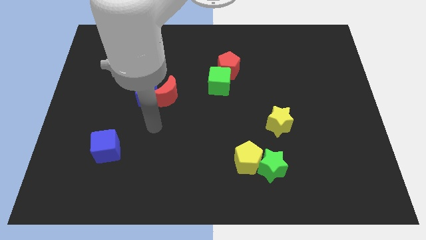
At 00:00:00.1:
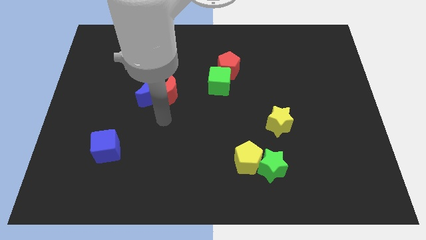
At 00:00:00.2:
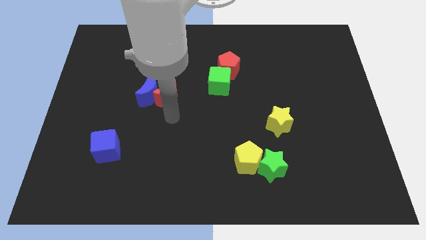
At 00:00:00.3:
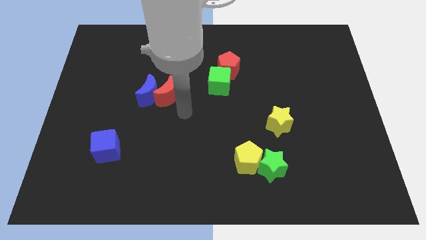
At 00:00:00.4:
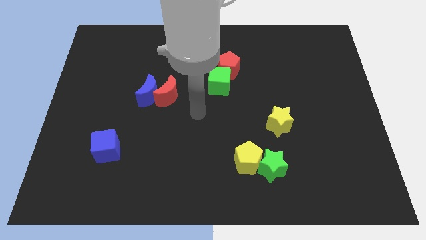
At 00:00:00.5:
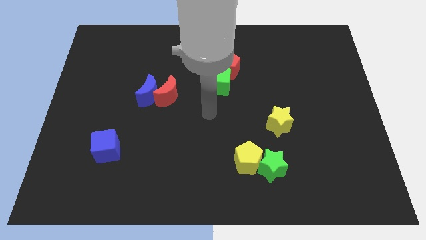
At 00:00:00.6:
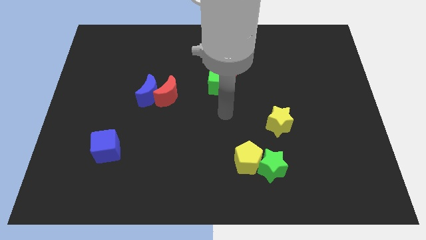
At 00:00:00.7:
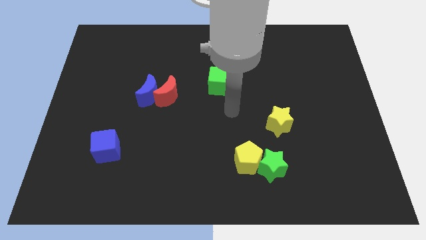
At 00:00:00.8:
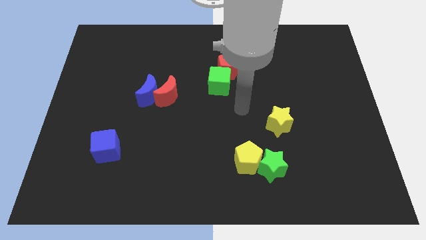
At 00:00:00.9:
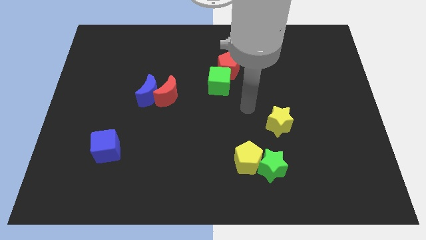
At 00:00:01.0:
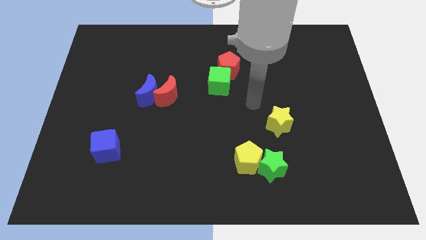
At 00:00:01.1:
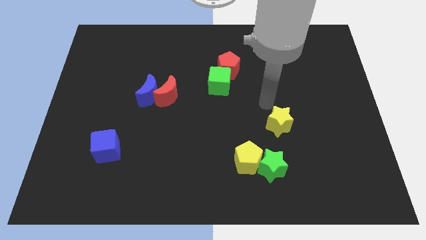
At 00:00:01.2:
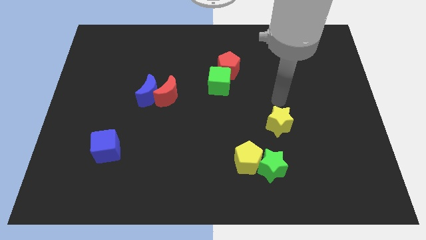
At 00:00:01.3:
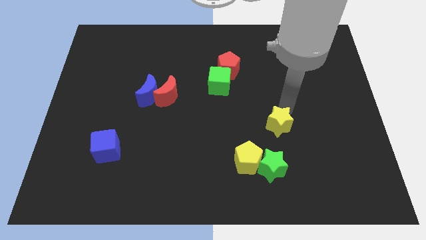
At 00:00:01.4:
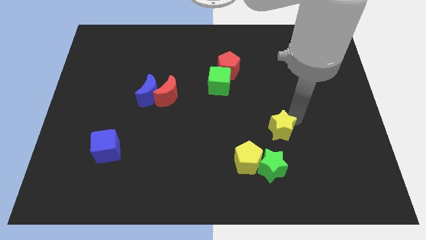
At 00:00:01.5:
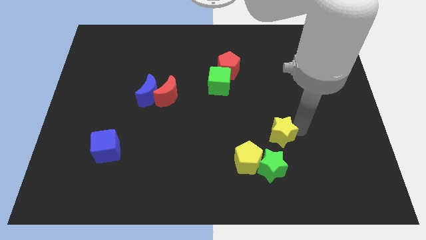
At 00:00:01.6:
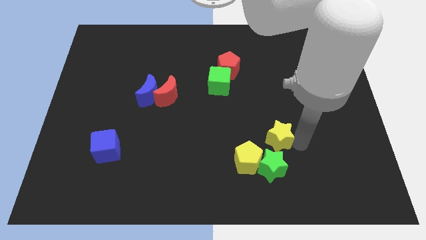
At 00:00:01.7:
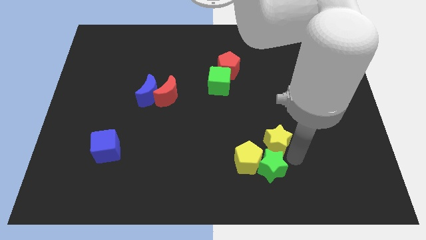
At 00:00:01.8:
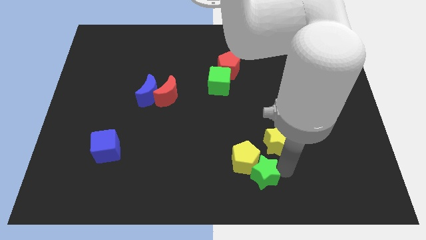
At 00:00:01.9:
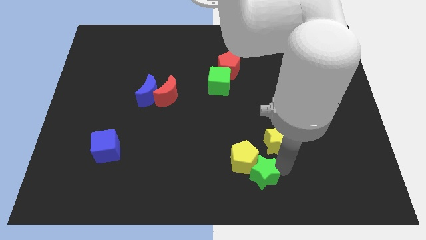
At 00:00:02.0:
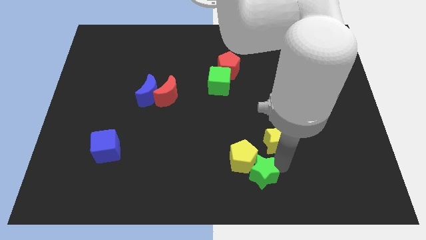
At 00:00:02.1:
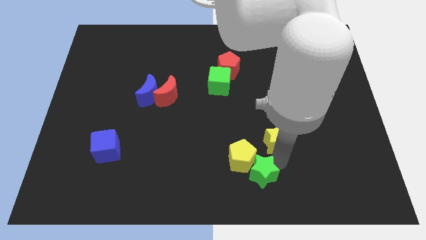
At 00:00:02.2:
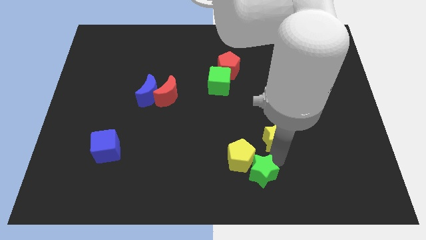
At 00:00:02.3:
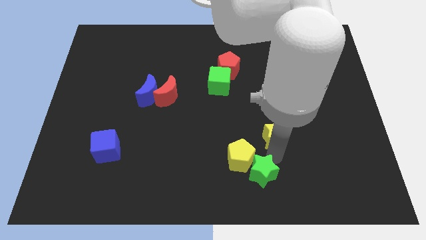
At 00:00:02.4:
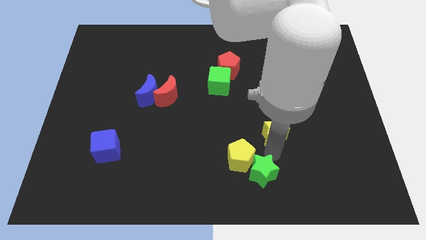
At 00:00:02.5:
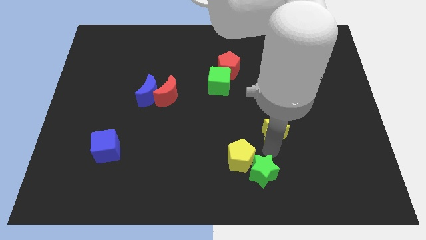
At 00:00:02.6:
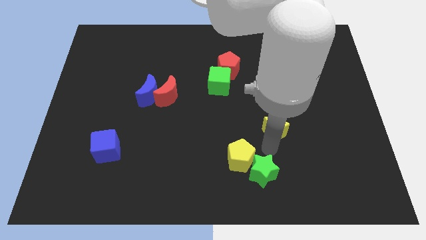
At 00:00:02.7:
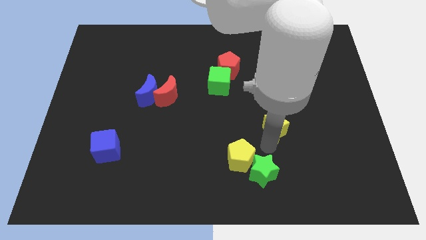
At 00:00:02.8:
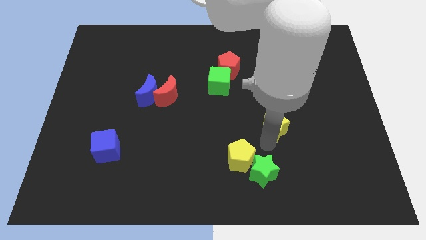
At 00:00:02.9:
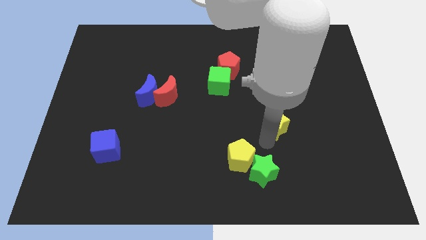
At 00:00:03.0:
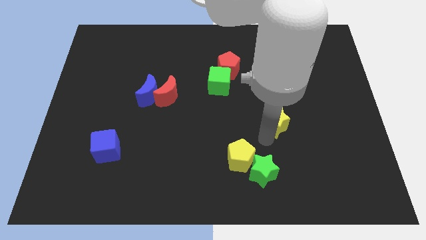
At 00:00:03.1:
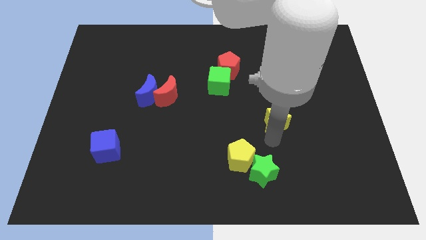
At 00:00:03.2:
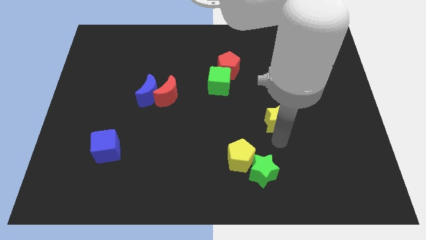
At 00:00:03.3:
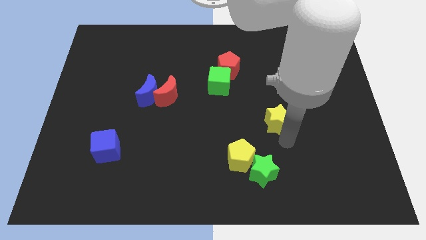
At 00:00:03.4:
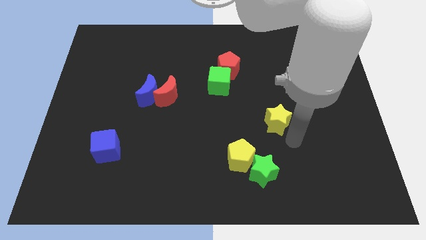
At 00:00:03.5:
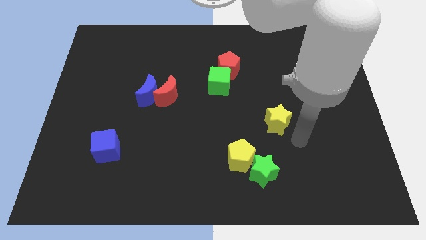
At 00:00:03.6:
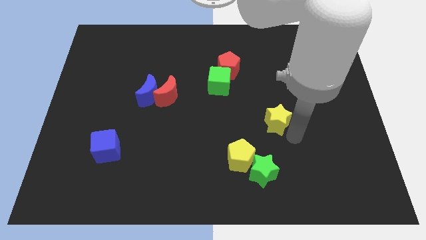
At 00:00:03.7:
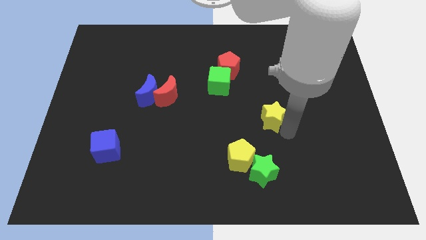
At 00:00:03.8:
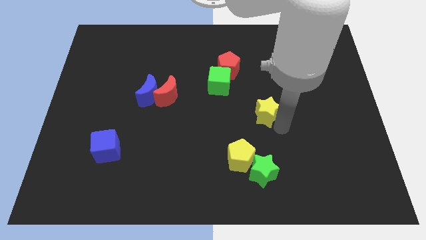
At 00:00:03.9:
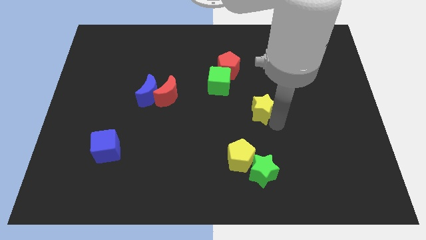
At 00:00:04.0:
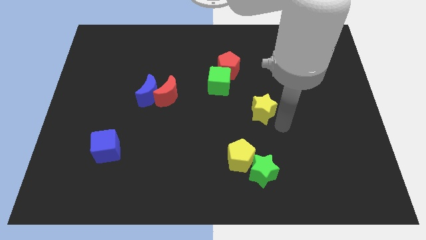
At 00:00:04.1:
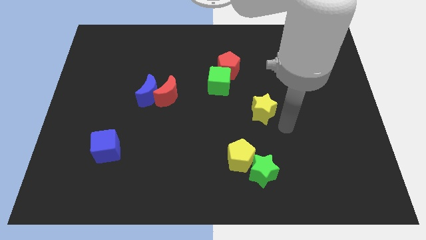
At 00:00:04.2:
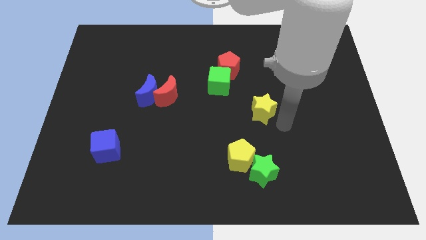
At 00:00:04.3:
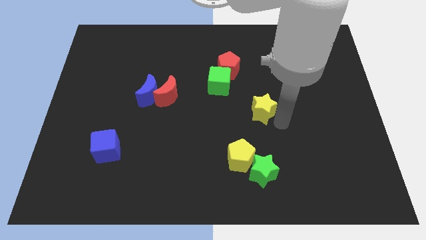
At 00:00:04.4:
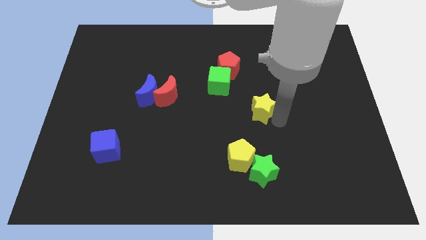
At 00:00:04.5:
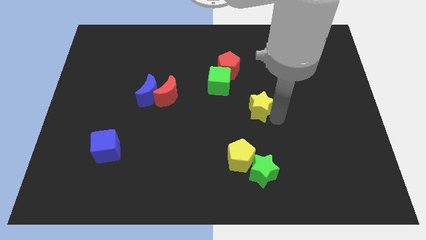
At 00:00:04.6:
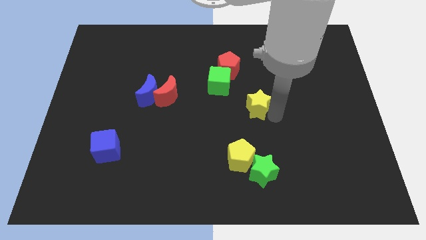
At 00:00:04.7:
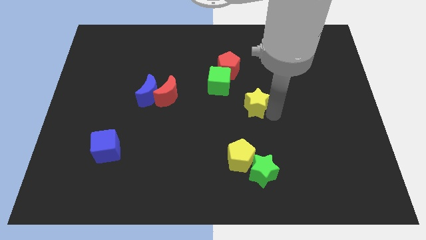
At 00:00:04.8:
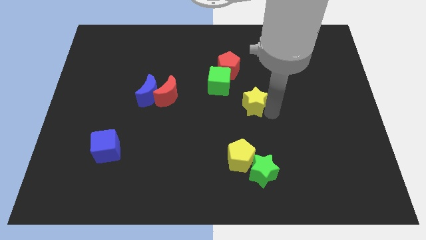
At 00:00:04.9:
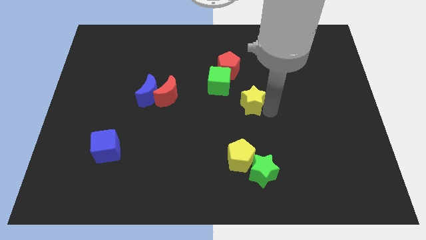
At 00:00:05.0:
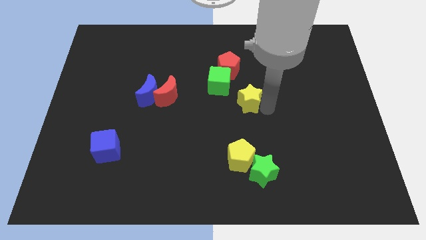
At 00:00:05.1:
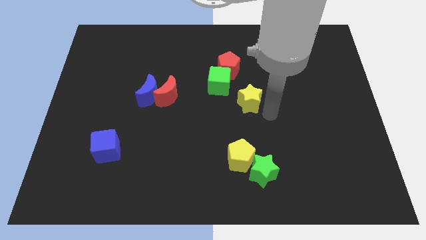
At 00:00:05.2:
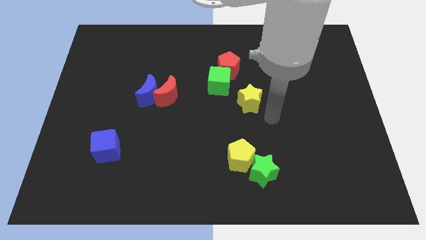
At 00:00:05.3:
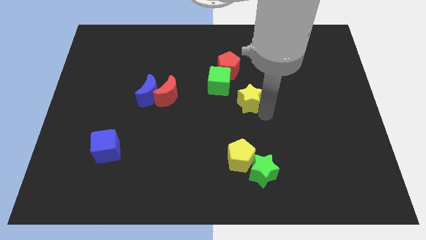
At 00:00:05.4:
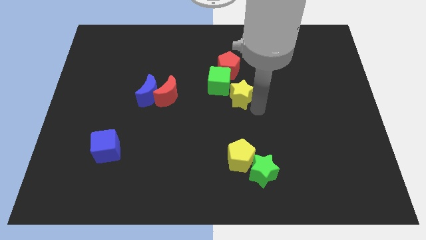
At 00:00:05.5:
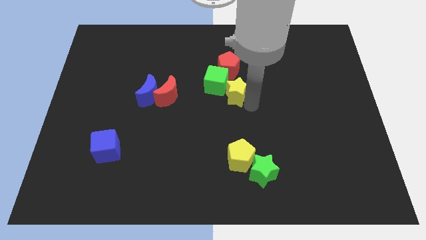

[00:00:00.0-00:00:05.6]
put the yellow star next to the green cube

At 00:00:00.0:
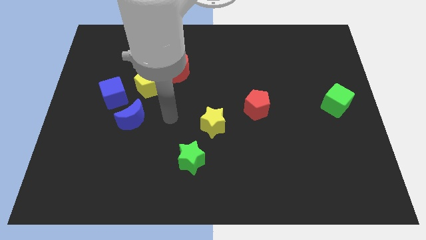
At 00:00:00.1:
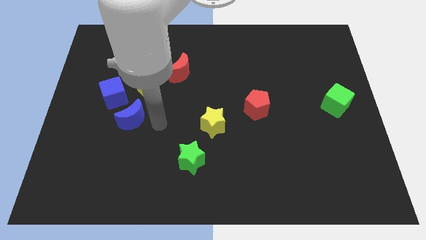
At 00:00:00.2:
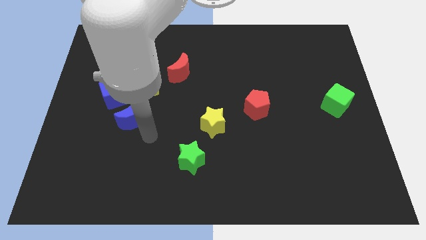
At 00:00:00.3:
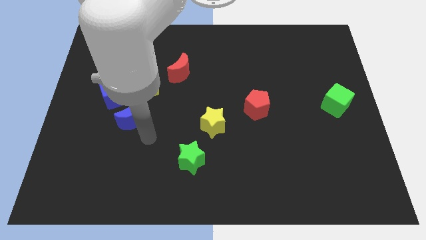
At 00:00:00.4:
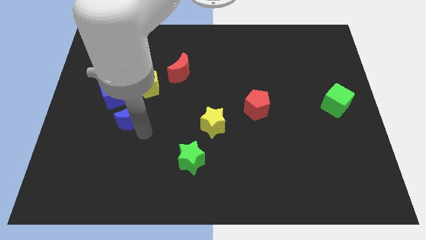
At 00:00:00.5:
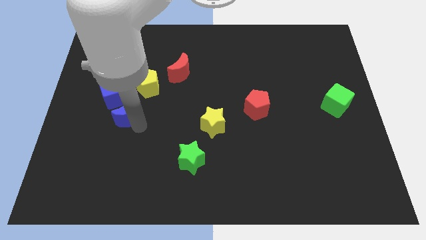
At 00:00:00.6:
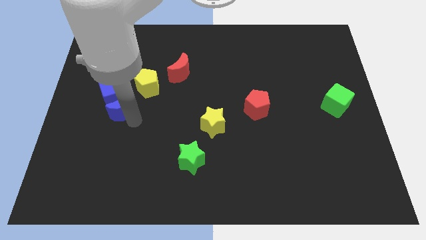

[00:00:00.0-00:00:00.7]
slide the blue moon towards the blue cube
